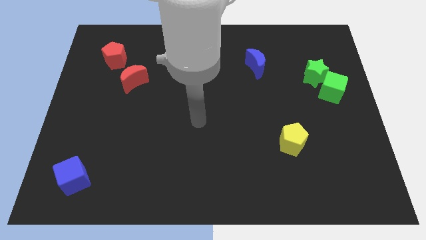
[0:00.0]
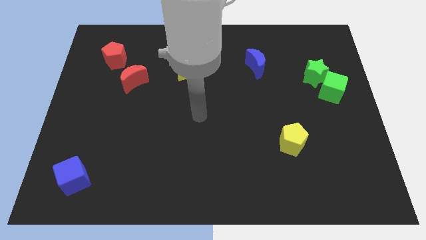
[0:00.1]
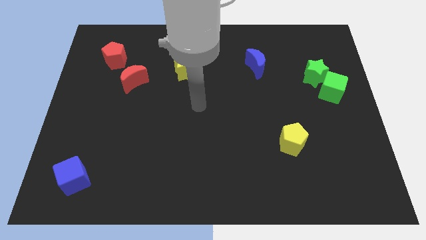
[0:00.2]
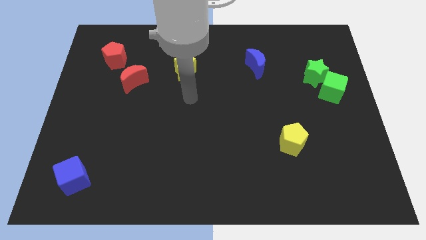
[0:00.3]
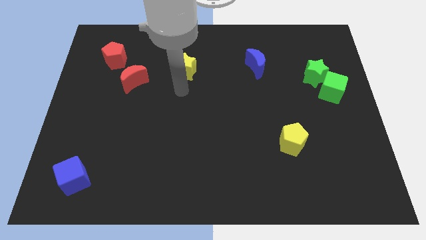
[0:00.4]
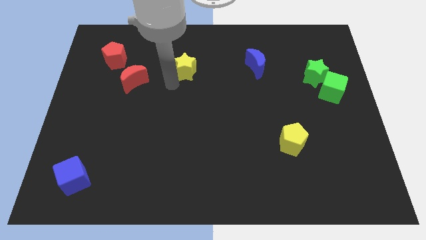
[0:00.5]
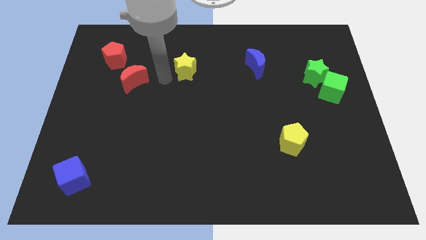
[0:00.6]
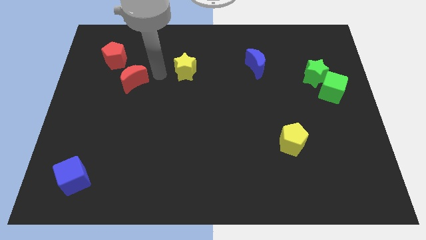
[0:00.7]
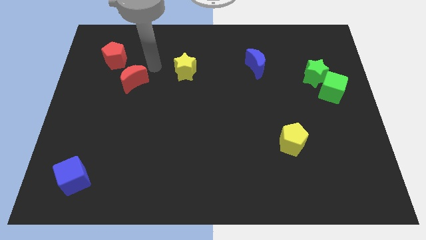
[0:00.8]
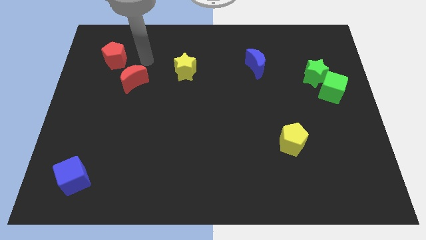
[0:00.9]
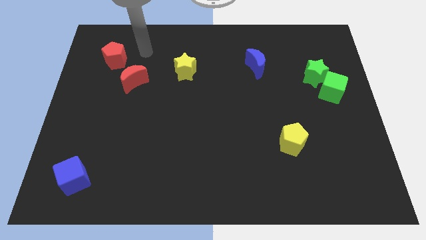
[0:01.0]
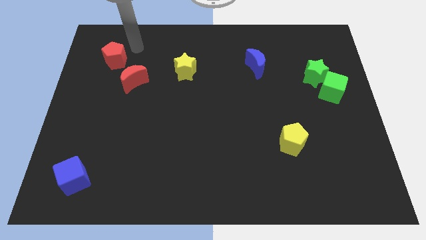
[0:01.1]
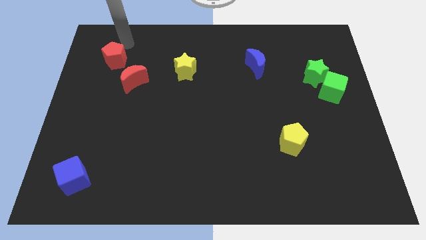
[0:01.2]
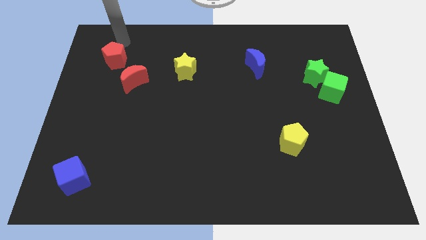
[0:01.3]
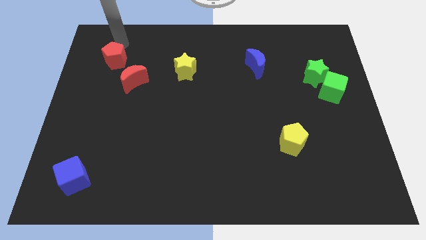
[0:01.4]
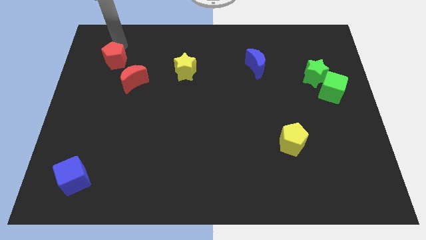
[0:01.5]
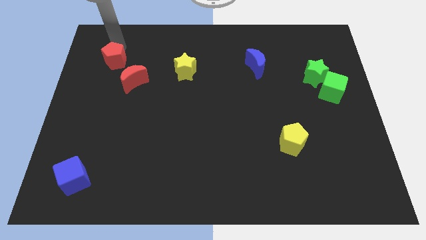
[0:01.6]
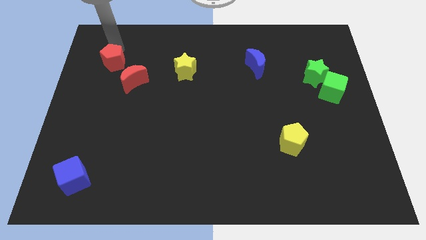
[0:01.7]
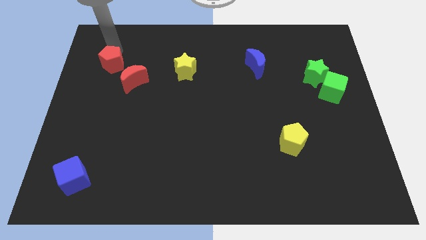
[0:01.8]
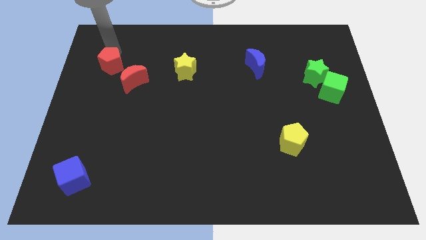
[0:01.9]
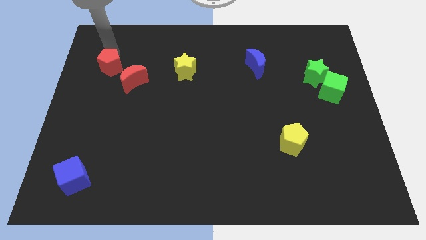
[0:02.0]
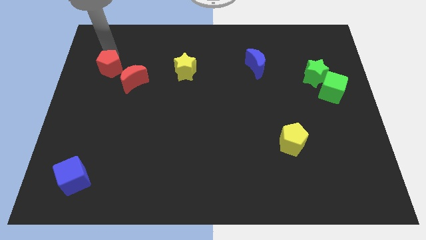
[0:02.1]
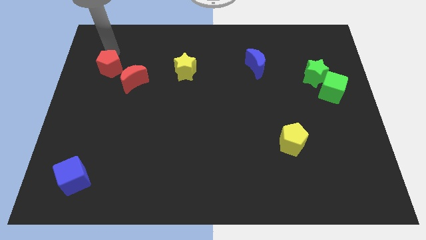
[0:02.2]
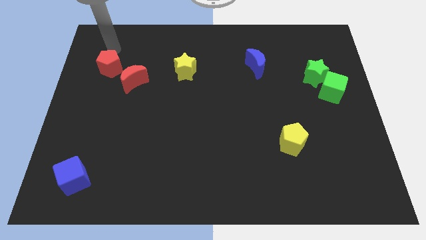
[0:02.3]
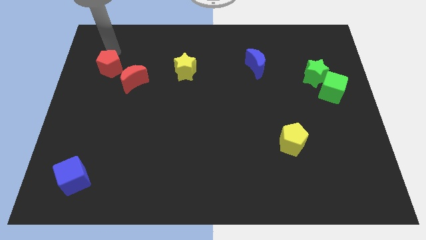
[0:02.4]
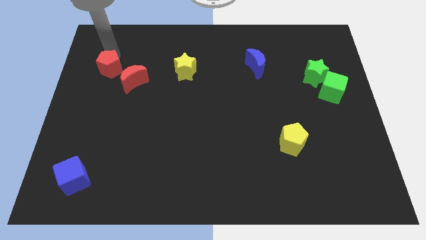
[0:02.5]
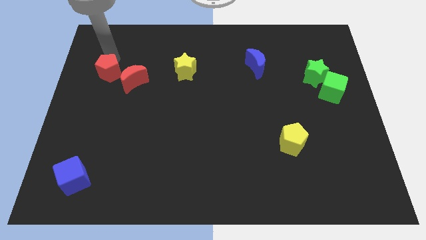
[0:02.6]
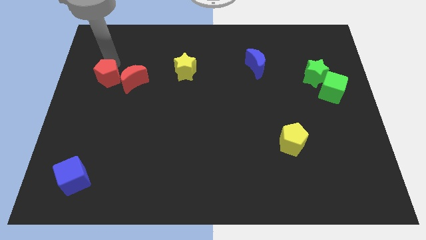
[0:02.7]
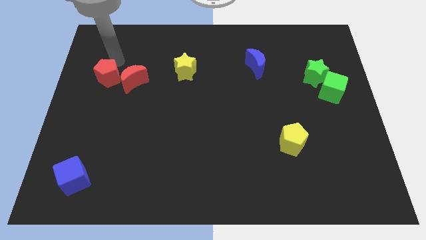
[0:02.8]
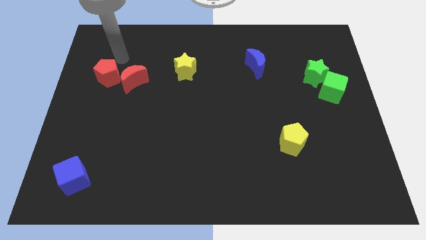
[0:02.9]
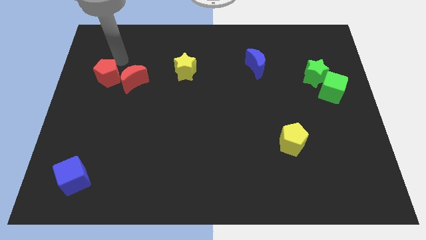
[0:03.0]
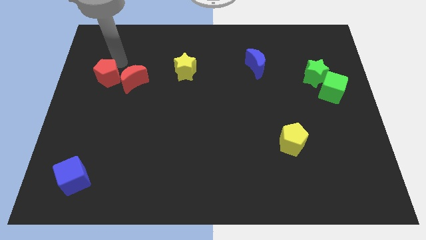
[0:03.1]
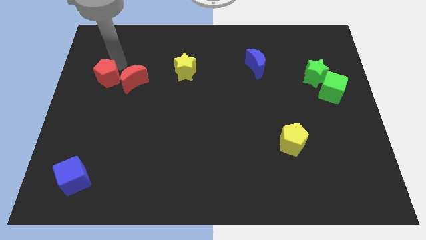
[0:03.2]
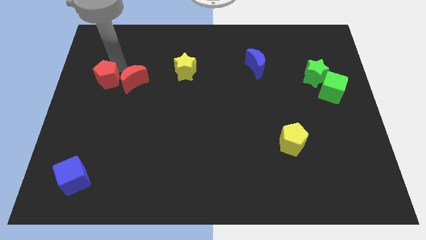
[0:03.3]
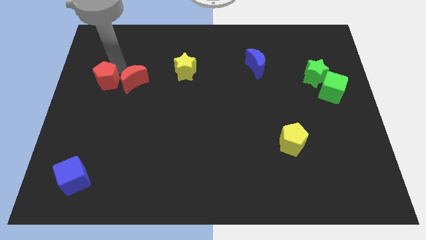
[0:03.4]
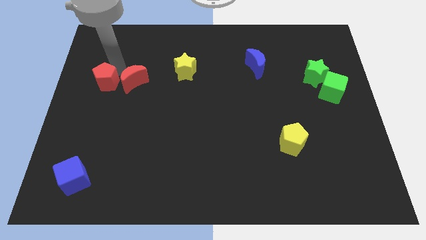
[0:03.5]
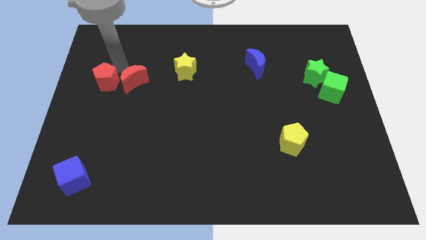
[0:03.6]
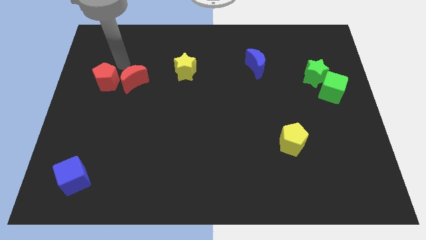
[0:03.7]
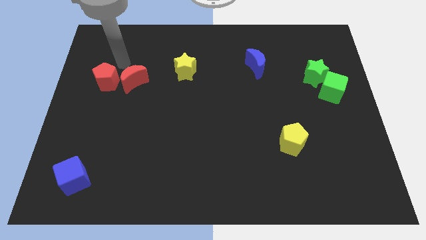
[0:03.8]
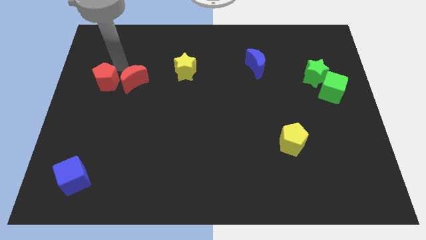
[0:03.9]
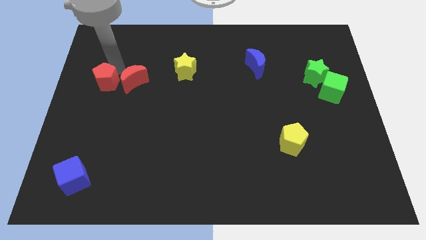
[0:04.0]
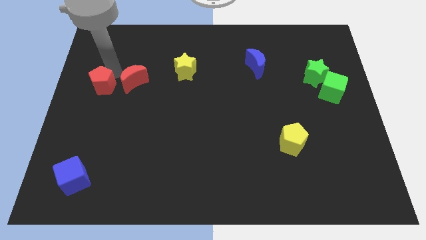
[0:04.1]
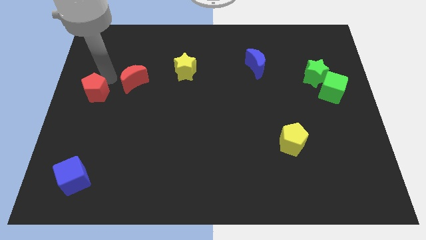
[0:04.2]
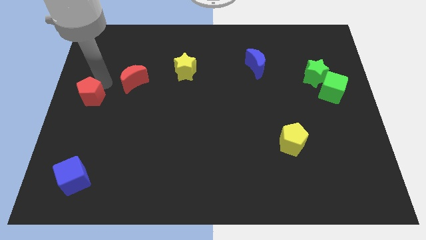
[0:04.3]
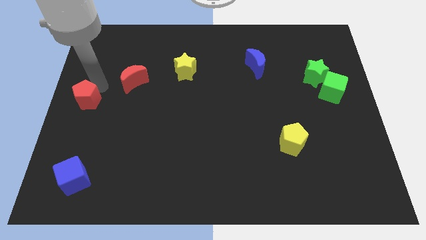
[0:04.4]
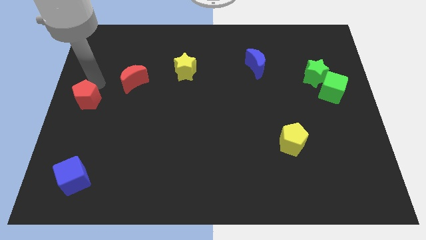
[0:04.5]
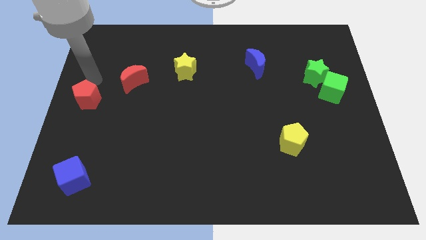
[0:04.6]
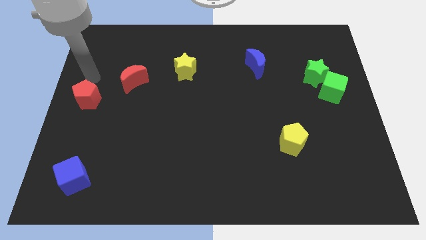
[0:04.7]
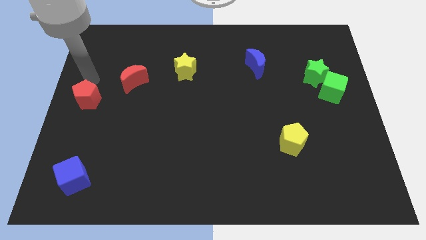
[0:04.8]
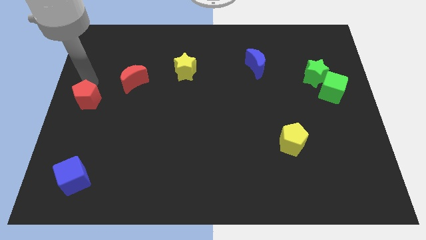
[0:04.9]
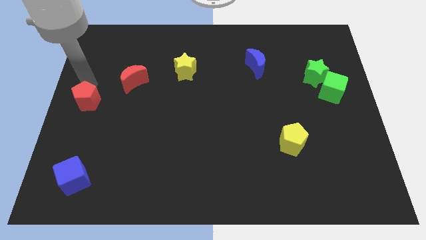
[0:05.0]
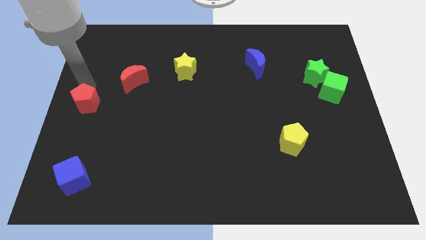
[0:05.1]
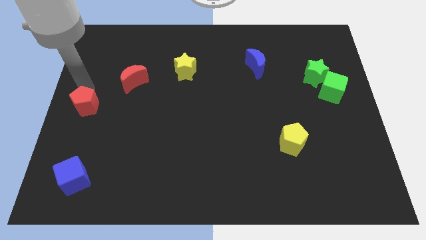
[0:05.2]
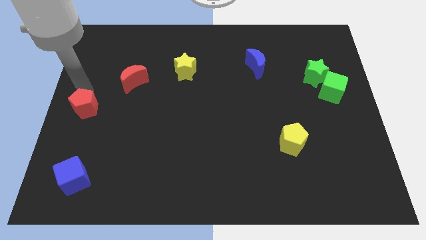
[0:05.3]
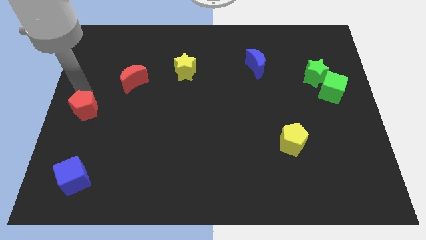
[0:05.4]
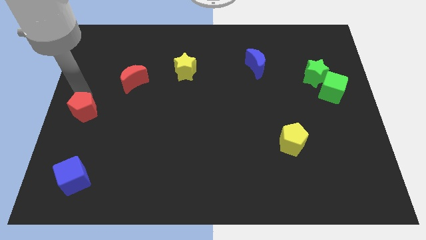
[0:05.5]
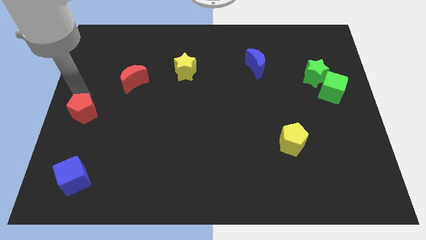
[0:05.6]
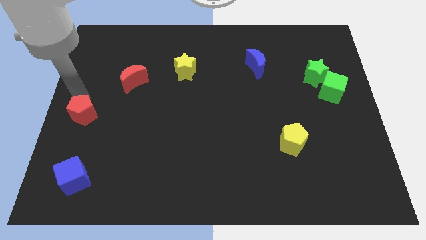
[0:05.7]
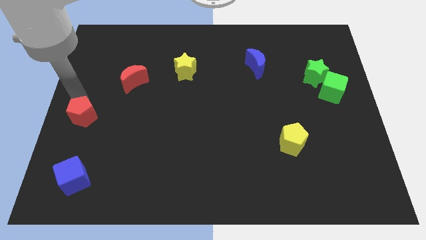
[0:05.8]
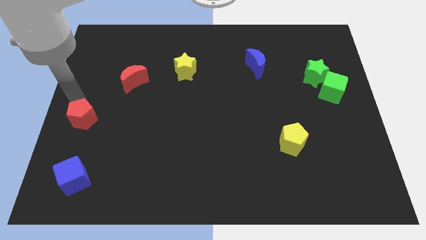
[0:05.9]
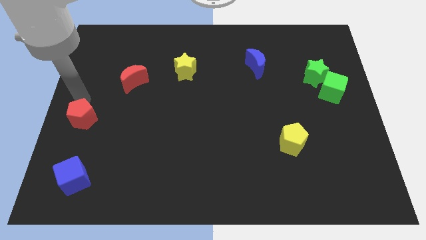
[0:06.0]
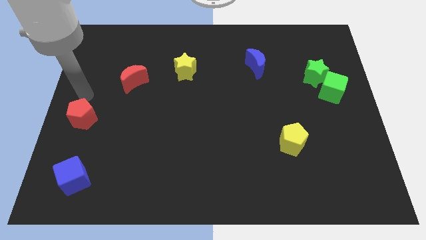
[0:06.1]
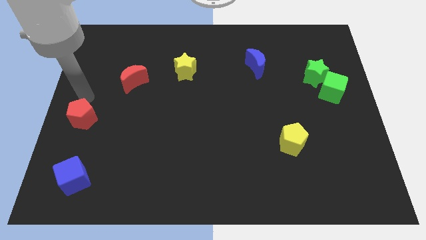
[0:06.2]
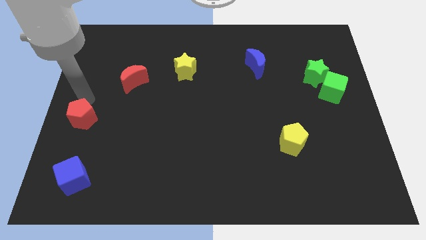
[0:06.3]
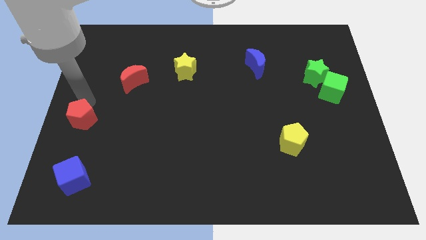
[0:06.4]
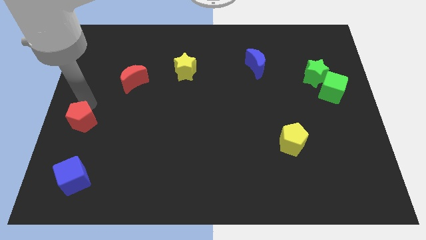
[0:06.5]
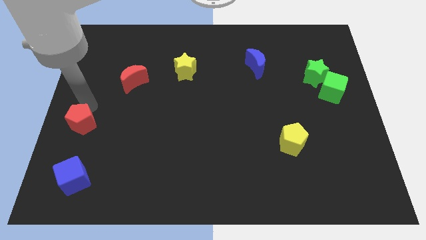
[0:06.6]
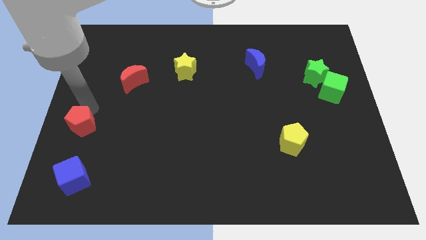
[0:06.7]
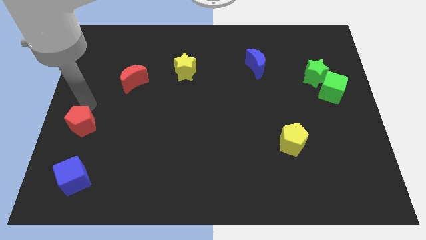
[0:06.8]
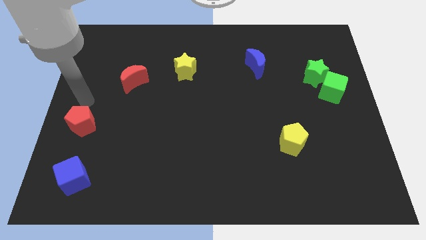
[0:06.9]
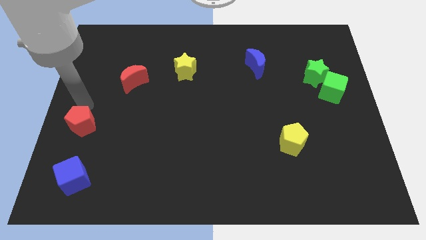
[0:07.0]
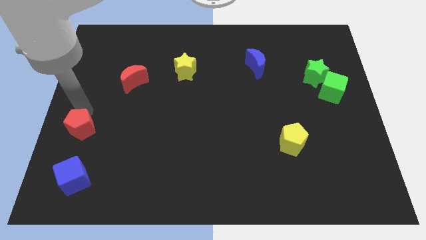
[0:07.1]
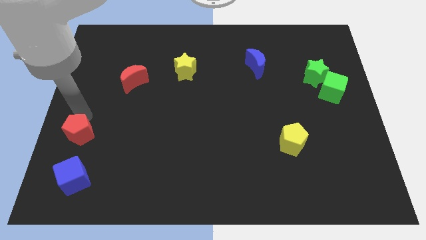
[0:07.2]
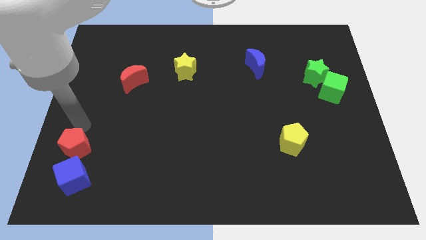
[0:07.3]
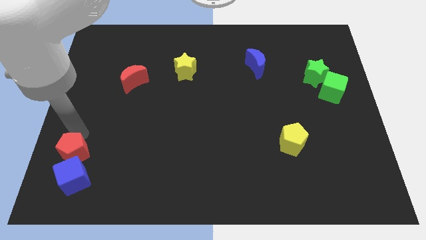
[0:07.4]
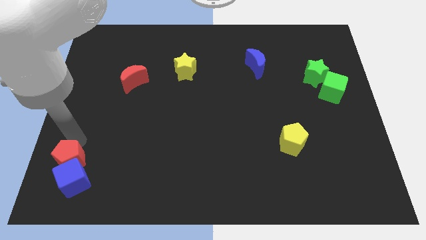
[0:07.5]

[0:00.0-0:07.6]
move the red pentagon to the blue cube

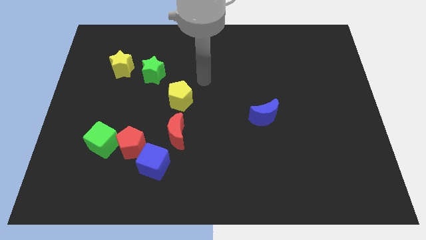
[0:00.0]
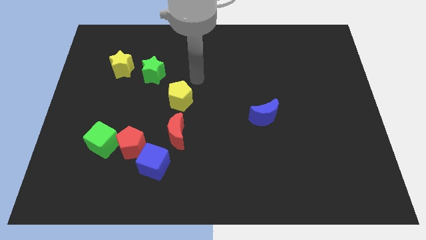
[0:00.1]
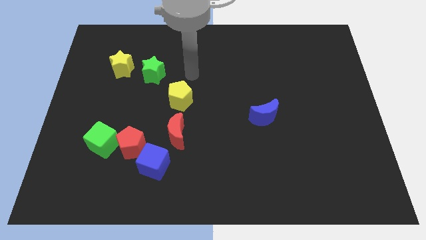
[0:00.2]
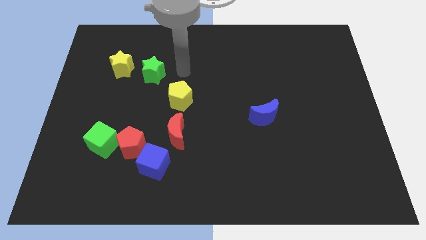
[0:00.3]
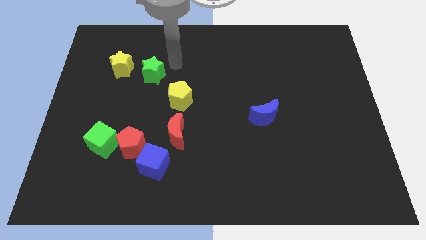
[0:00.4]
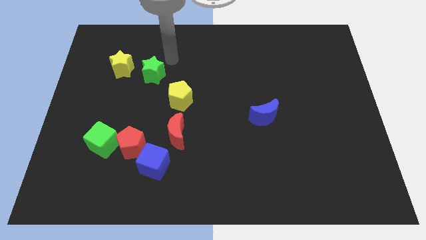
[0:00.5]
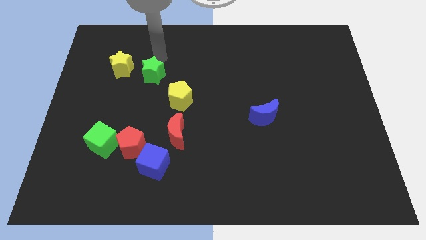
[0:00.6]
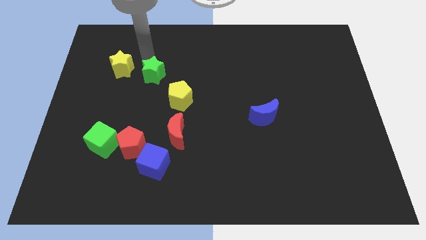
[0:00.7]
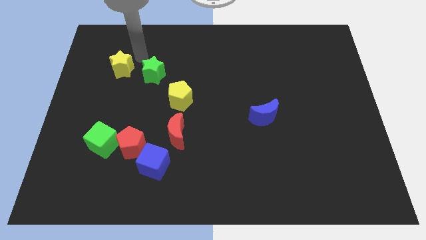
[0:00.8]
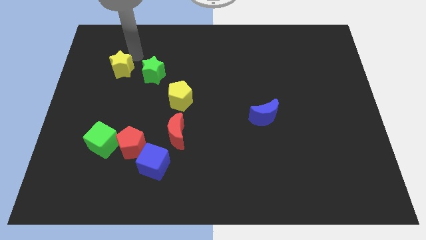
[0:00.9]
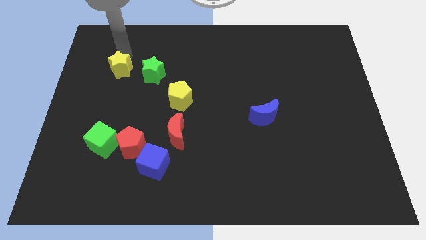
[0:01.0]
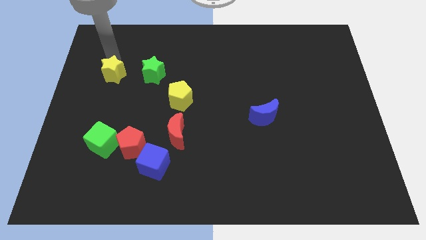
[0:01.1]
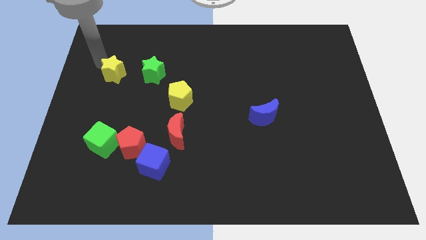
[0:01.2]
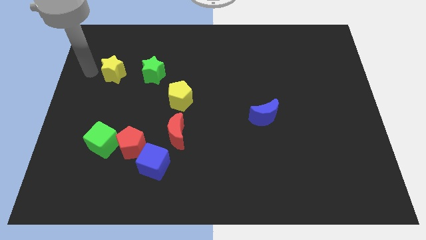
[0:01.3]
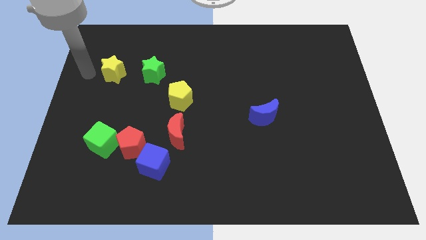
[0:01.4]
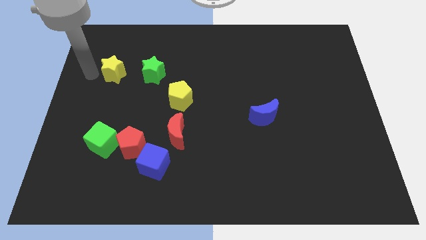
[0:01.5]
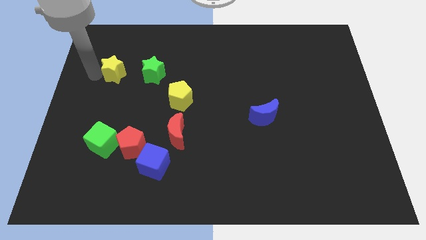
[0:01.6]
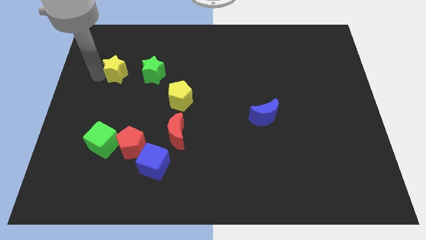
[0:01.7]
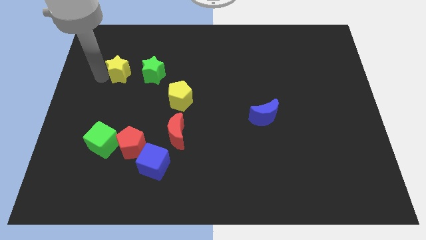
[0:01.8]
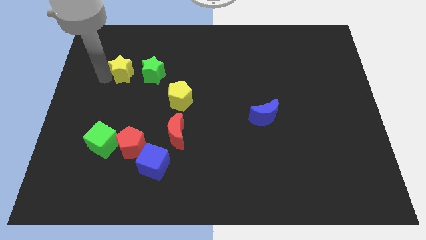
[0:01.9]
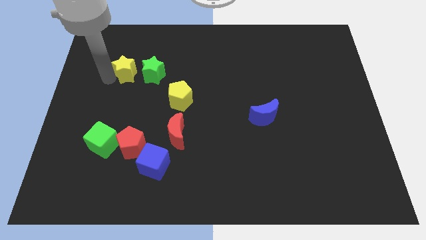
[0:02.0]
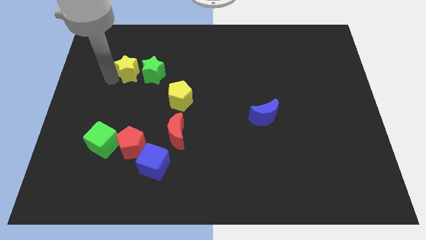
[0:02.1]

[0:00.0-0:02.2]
push the yellow star towards the green star
